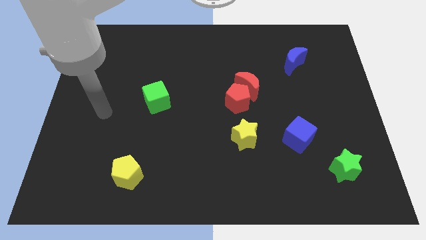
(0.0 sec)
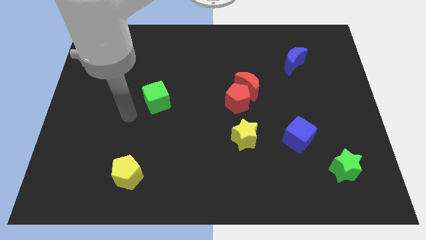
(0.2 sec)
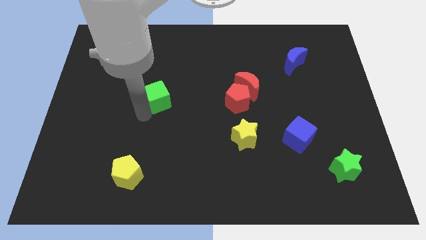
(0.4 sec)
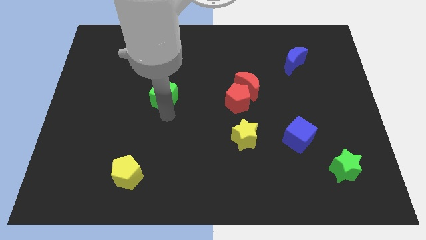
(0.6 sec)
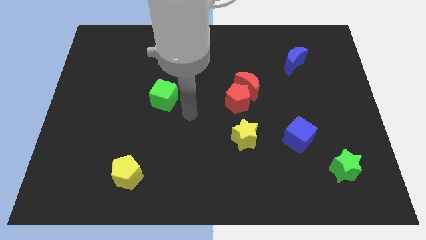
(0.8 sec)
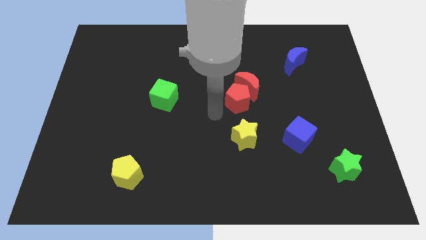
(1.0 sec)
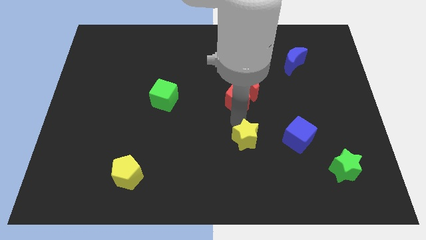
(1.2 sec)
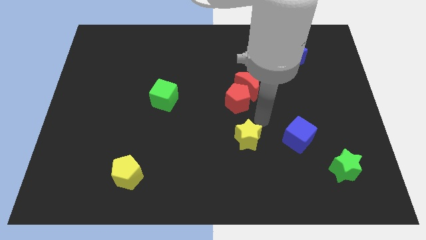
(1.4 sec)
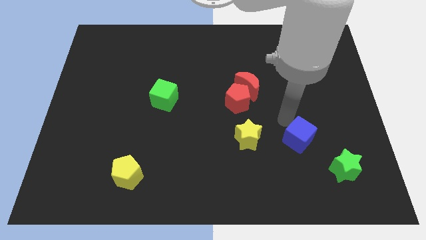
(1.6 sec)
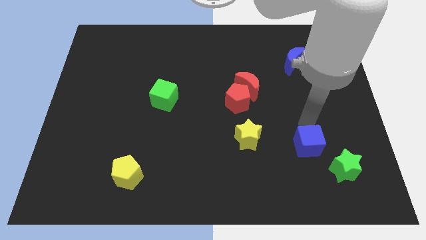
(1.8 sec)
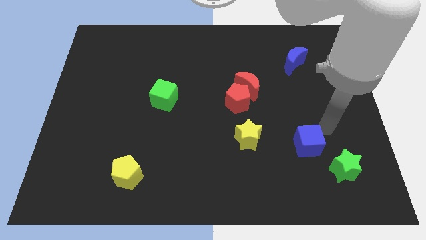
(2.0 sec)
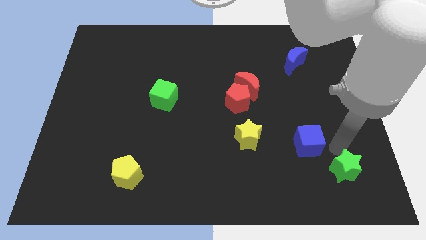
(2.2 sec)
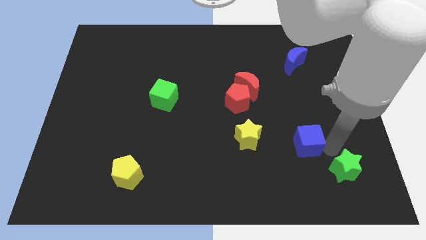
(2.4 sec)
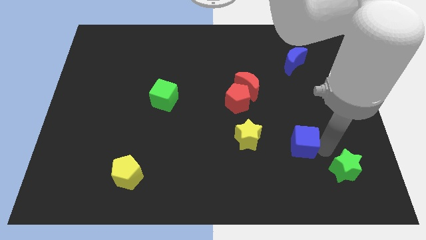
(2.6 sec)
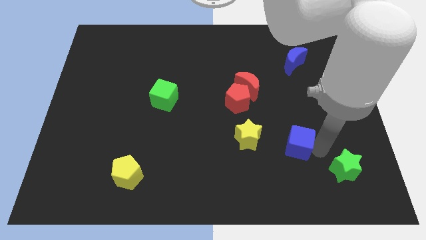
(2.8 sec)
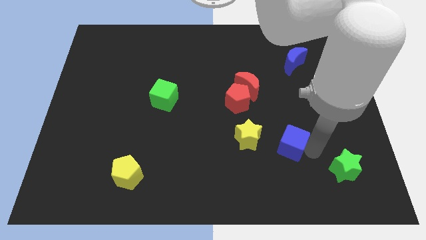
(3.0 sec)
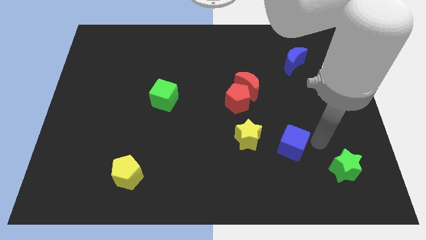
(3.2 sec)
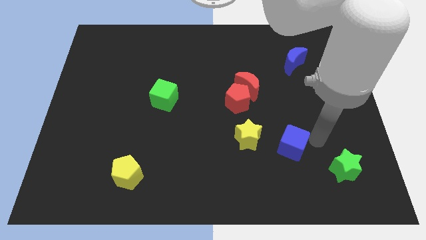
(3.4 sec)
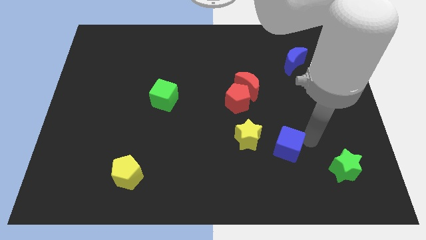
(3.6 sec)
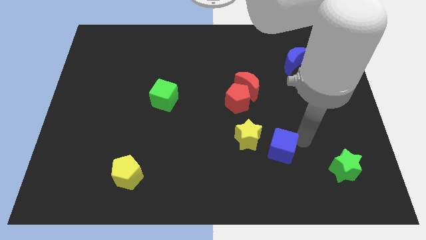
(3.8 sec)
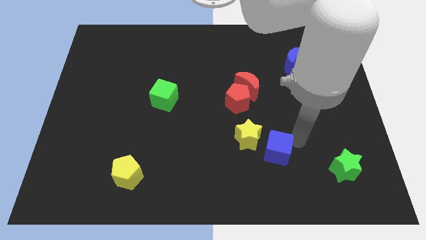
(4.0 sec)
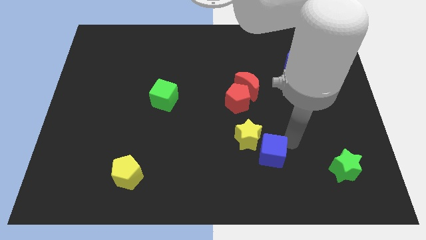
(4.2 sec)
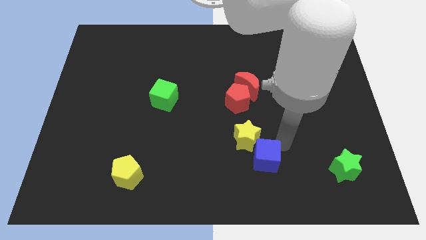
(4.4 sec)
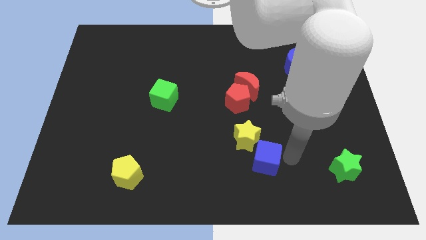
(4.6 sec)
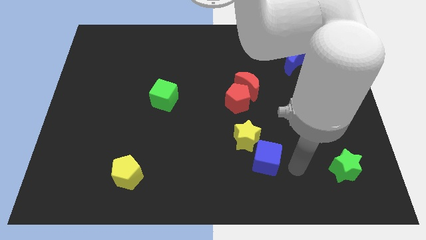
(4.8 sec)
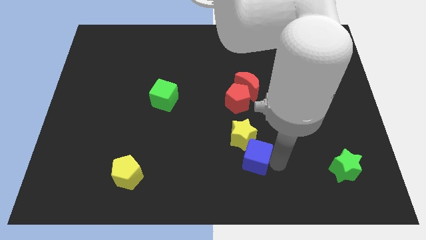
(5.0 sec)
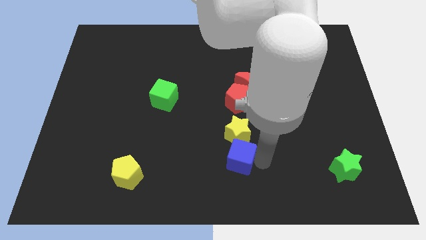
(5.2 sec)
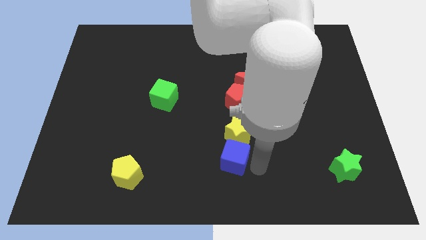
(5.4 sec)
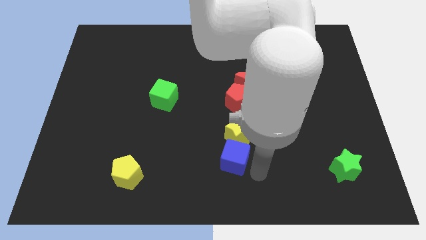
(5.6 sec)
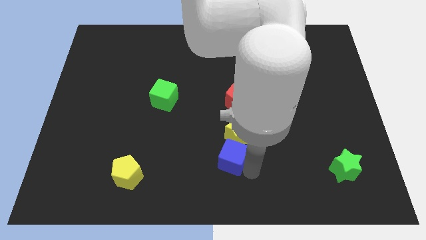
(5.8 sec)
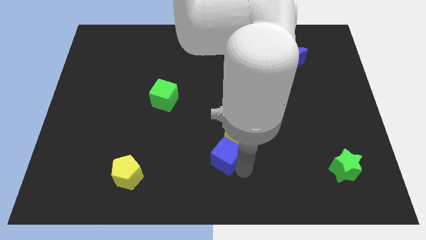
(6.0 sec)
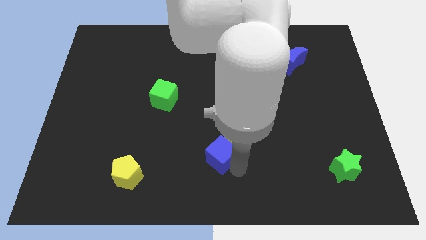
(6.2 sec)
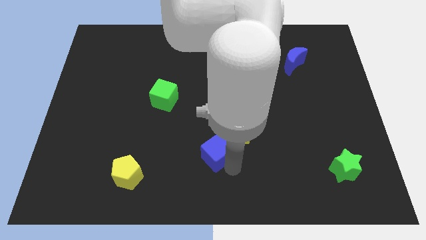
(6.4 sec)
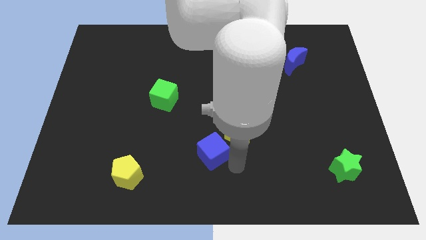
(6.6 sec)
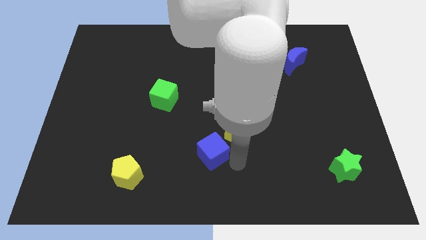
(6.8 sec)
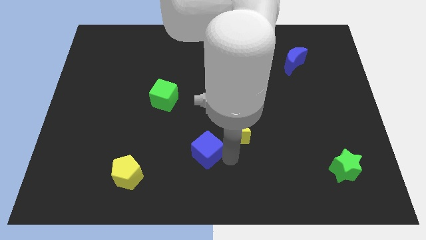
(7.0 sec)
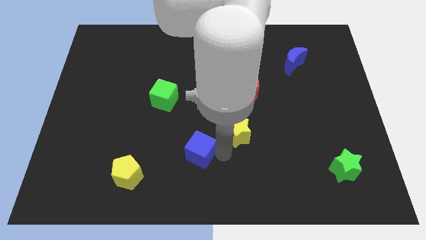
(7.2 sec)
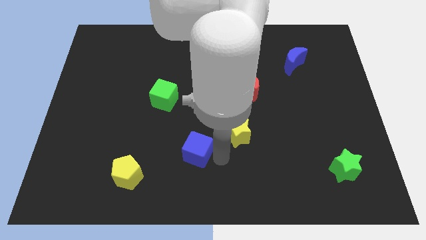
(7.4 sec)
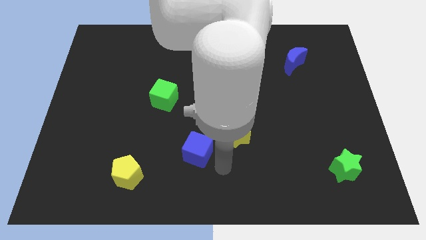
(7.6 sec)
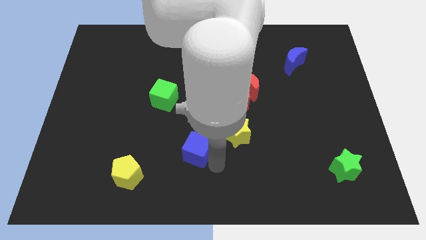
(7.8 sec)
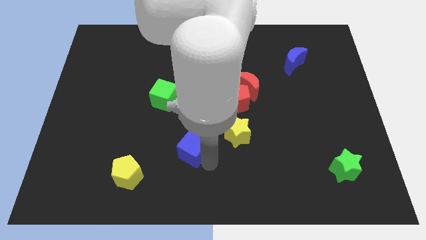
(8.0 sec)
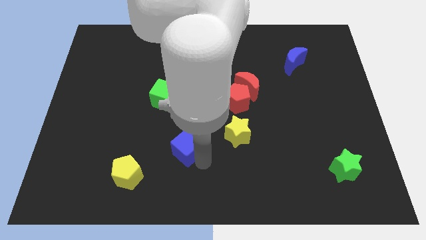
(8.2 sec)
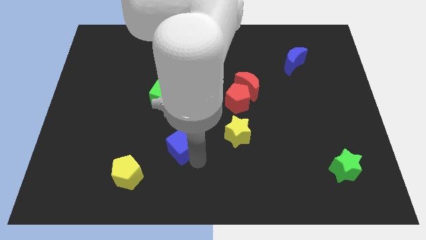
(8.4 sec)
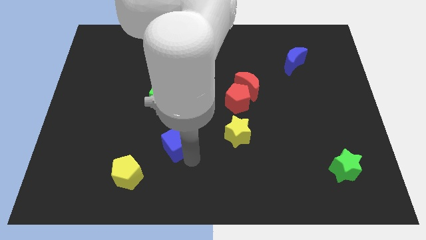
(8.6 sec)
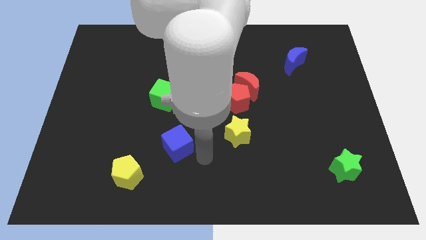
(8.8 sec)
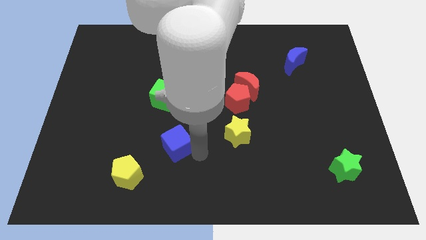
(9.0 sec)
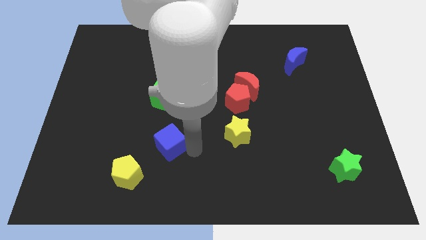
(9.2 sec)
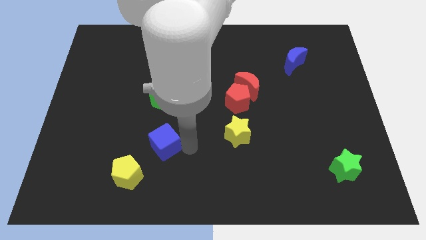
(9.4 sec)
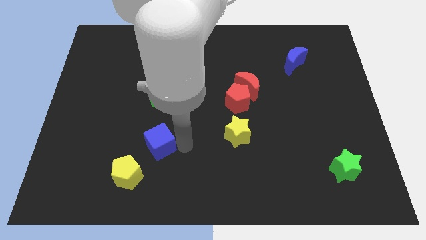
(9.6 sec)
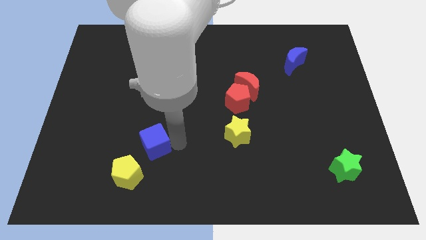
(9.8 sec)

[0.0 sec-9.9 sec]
push the blue cube to the top side of the yellow pentagon

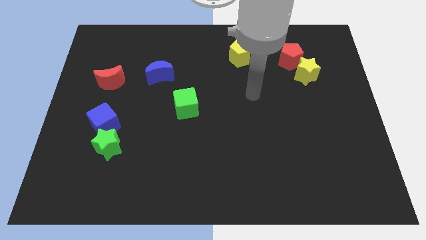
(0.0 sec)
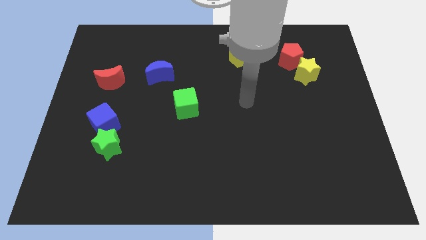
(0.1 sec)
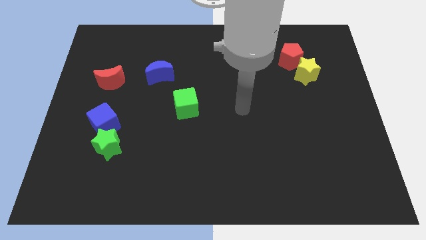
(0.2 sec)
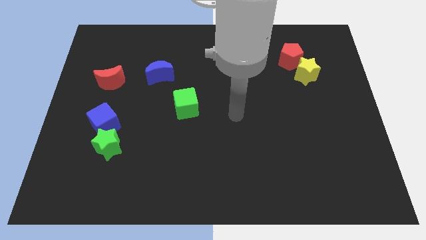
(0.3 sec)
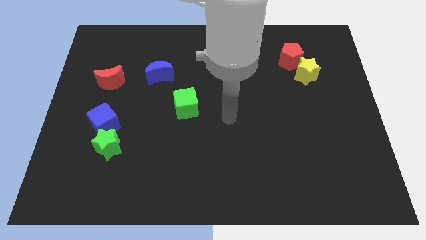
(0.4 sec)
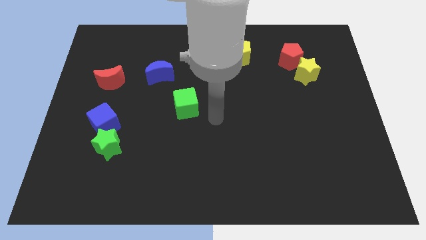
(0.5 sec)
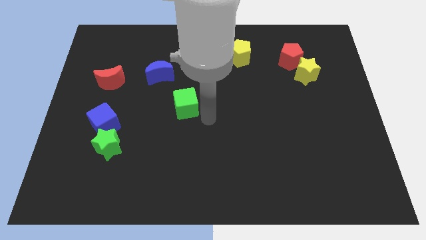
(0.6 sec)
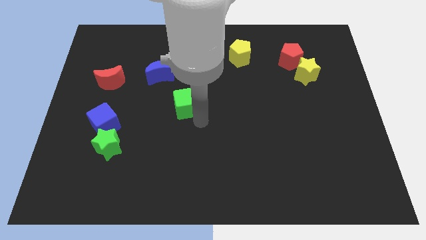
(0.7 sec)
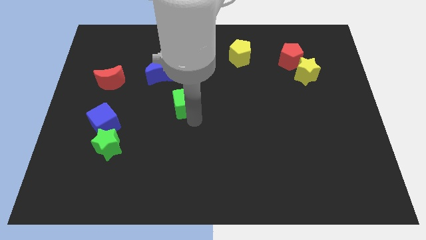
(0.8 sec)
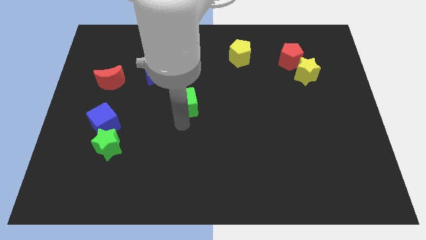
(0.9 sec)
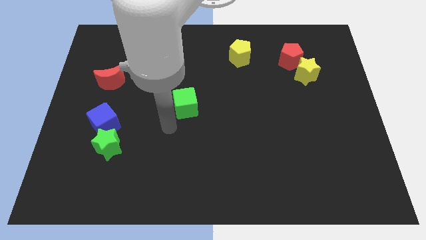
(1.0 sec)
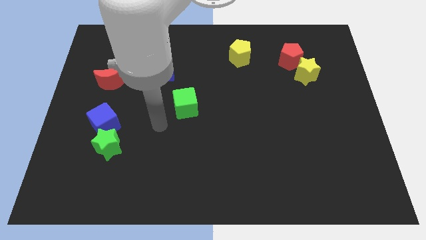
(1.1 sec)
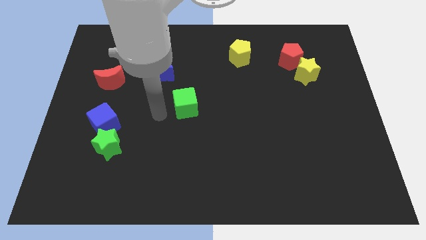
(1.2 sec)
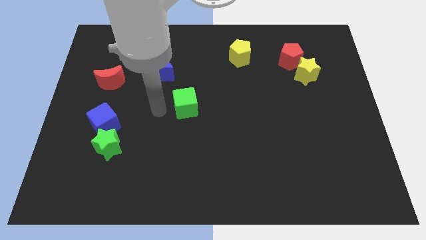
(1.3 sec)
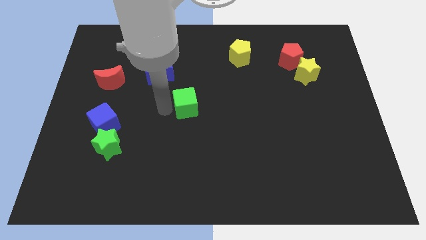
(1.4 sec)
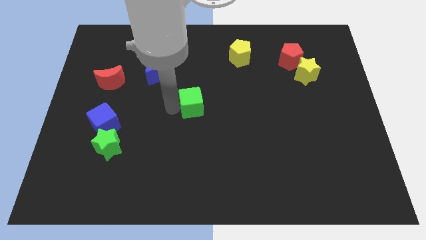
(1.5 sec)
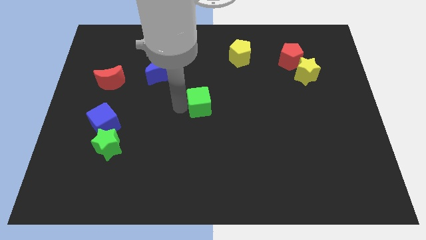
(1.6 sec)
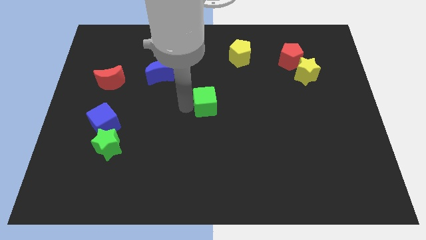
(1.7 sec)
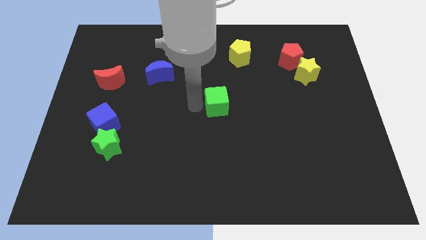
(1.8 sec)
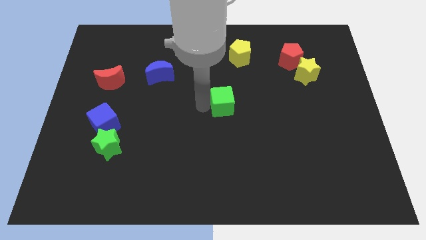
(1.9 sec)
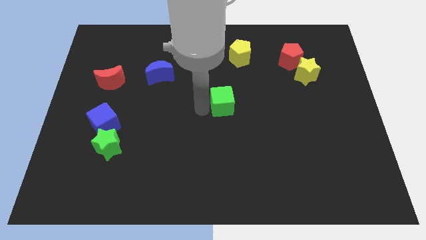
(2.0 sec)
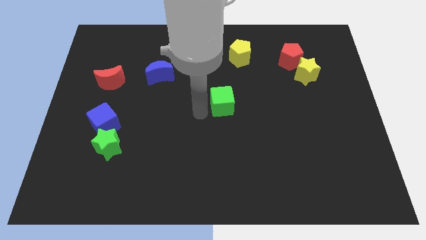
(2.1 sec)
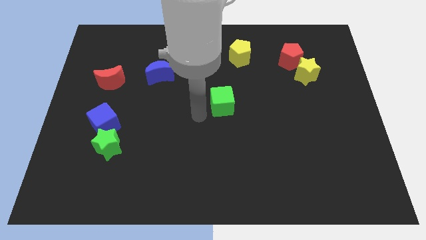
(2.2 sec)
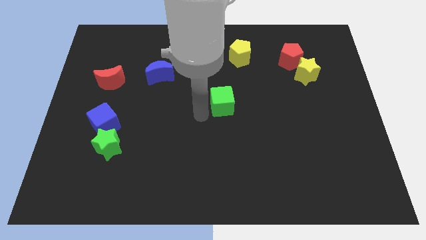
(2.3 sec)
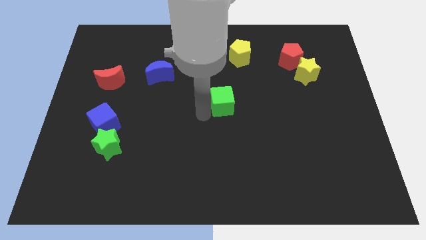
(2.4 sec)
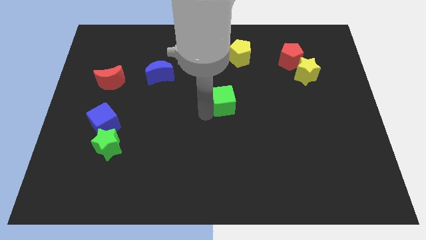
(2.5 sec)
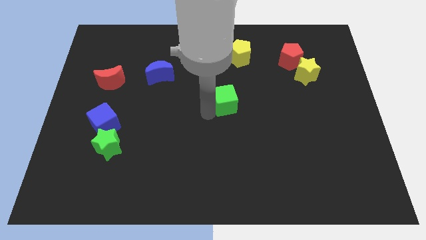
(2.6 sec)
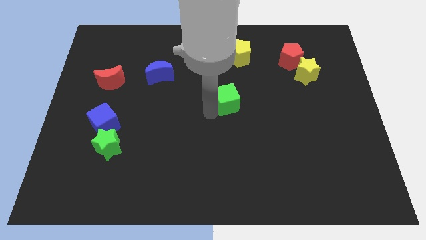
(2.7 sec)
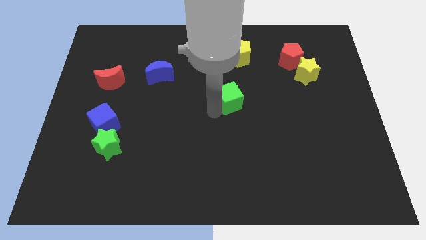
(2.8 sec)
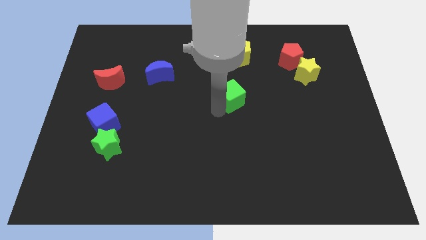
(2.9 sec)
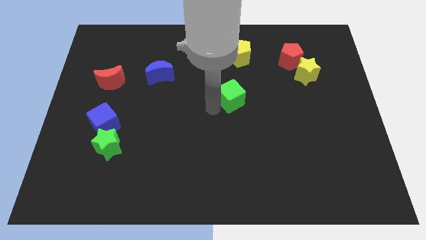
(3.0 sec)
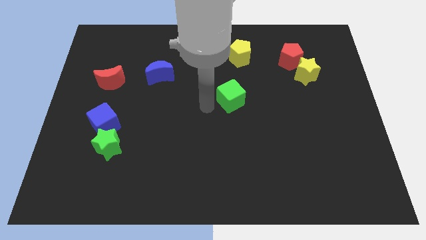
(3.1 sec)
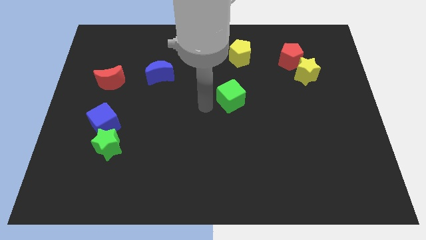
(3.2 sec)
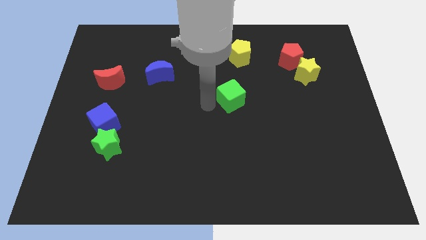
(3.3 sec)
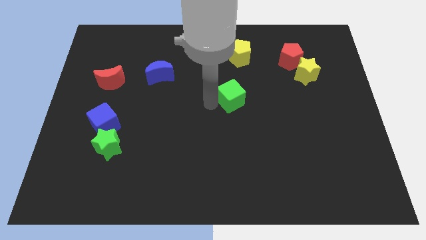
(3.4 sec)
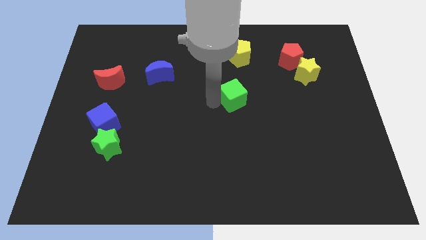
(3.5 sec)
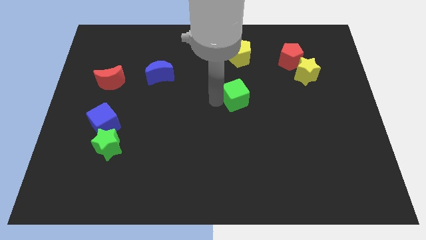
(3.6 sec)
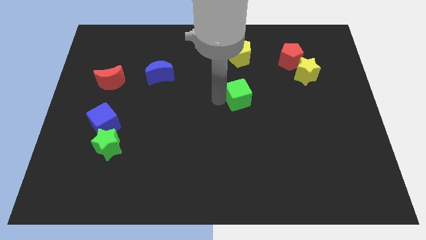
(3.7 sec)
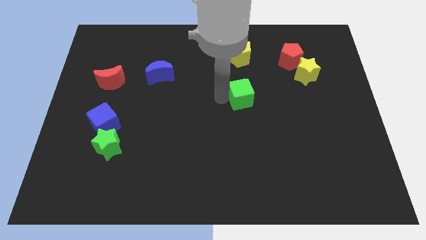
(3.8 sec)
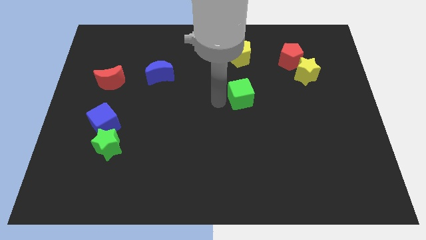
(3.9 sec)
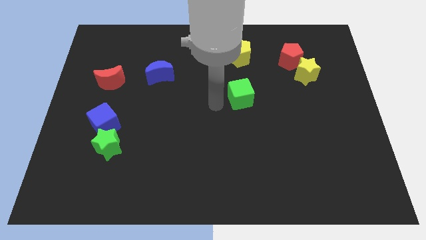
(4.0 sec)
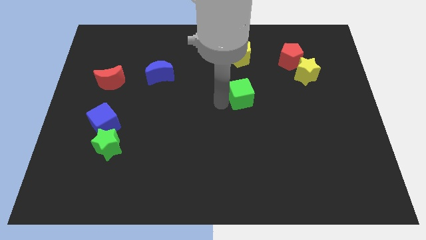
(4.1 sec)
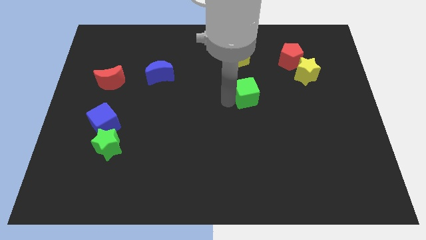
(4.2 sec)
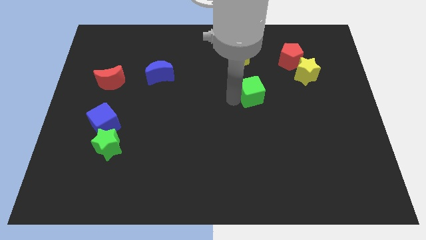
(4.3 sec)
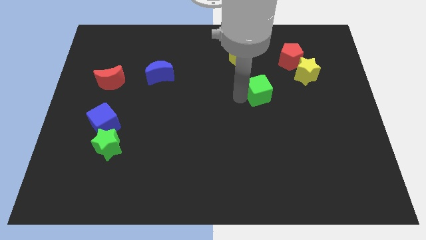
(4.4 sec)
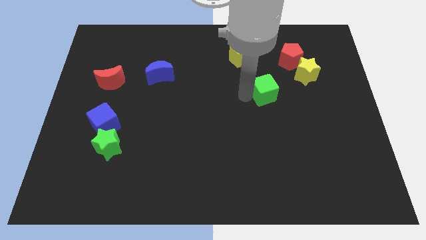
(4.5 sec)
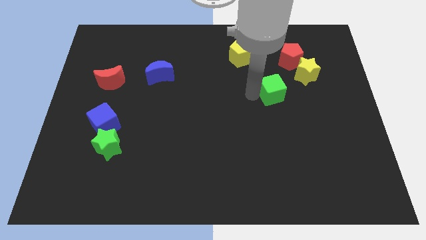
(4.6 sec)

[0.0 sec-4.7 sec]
put the green cube to the bottom left of the yellow star
